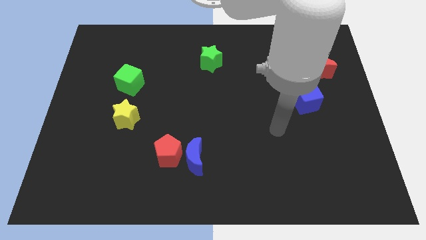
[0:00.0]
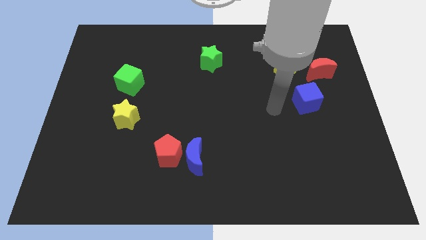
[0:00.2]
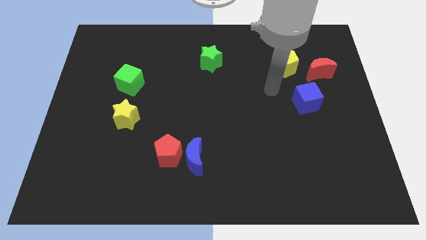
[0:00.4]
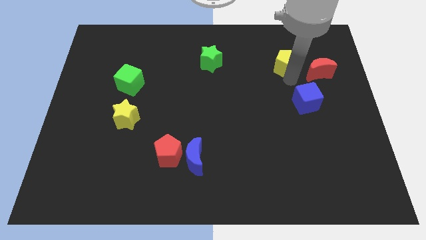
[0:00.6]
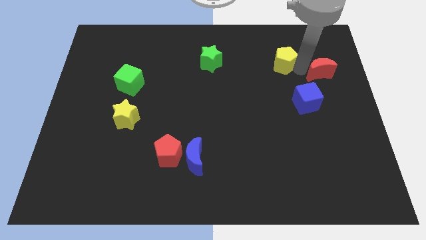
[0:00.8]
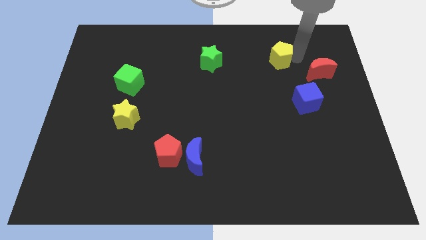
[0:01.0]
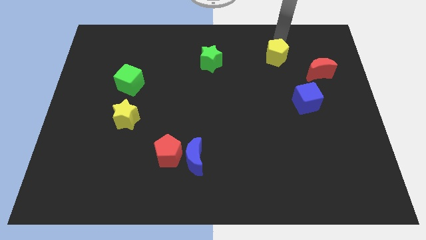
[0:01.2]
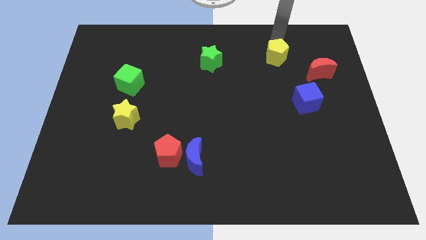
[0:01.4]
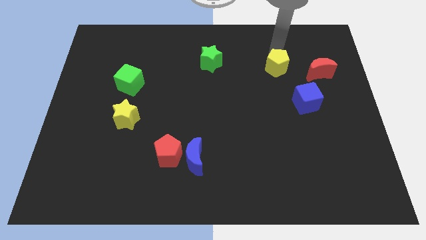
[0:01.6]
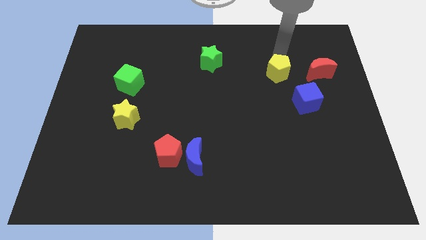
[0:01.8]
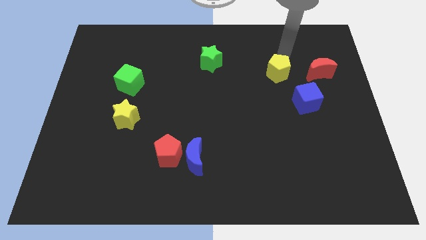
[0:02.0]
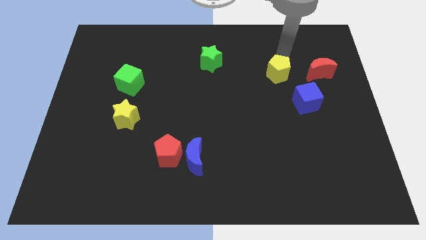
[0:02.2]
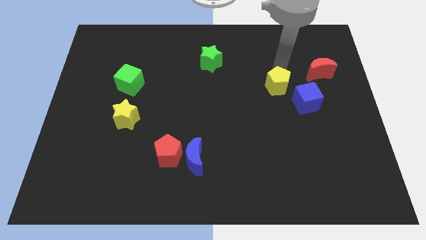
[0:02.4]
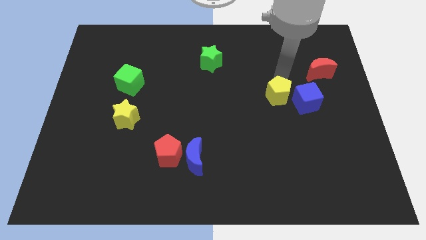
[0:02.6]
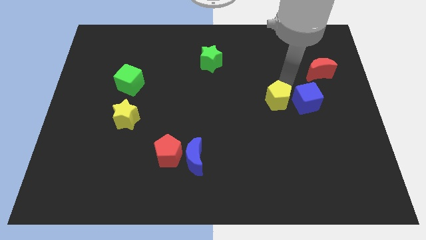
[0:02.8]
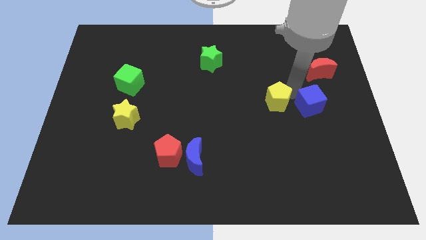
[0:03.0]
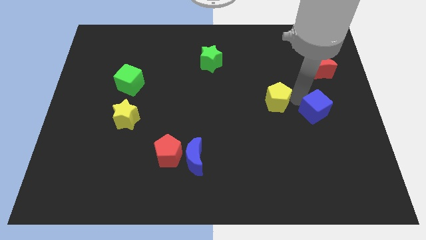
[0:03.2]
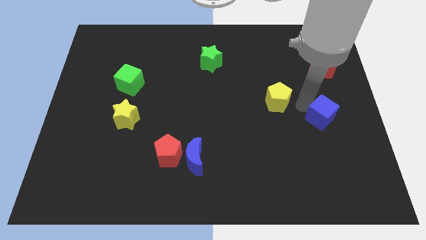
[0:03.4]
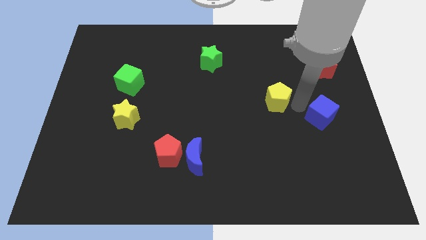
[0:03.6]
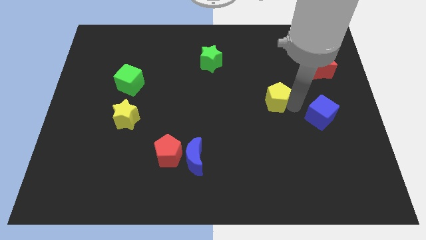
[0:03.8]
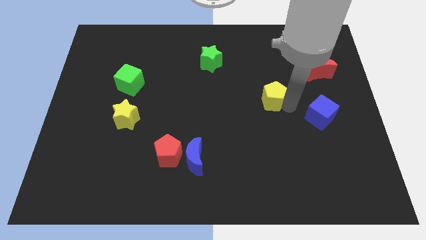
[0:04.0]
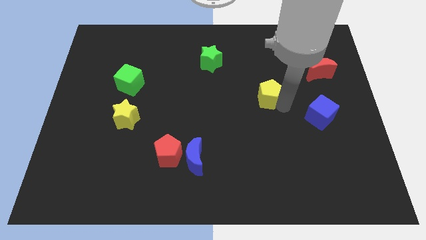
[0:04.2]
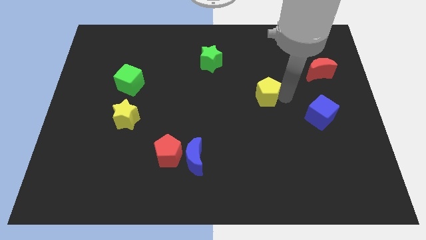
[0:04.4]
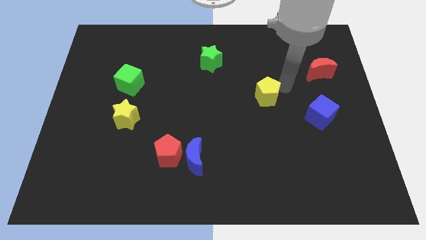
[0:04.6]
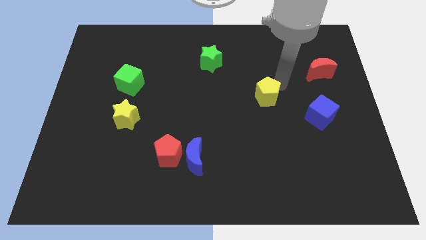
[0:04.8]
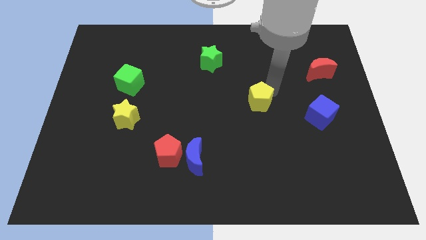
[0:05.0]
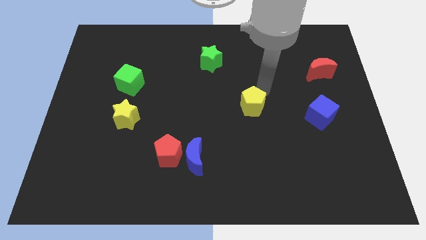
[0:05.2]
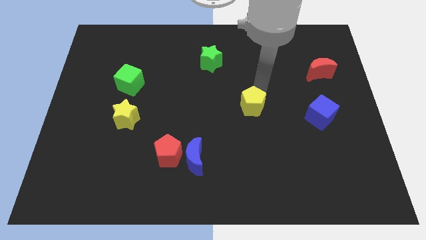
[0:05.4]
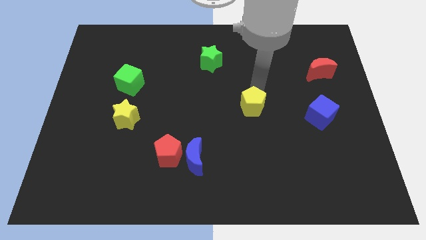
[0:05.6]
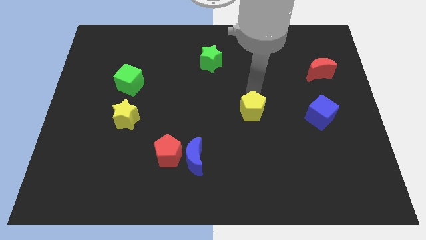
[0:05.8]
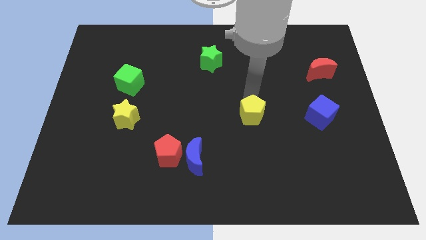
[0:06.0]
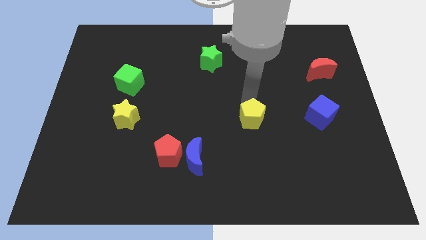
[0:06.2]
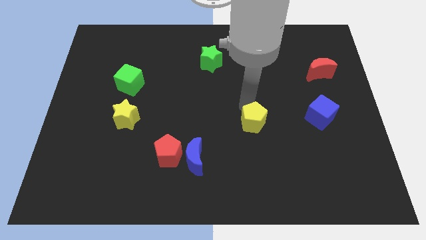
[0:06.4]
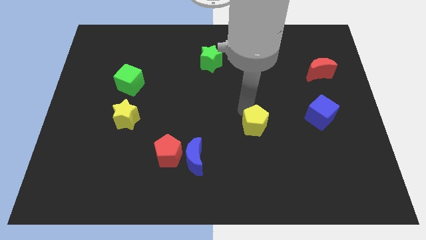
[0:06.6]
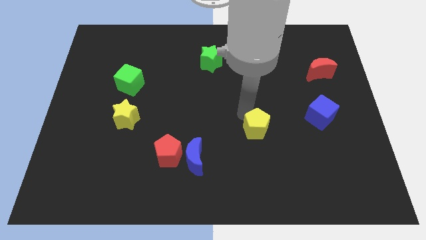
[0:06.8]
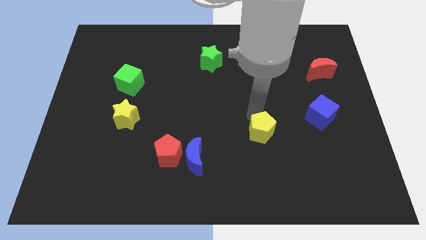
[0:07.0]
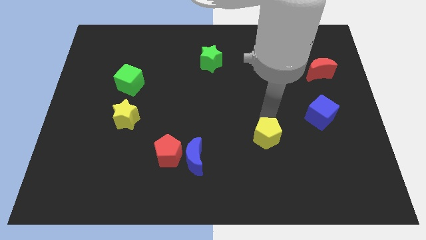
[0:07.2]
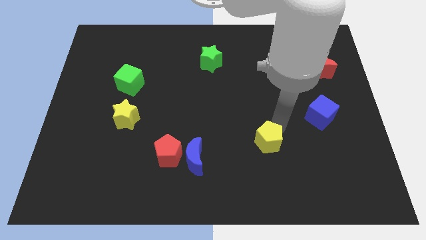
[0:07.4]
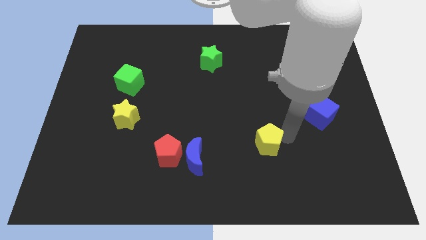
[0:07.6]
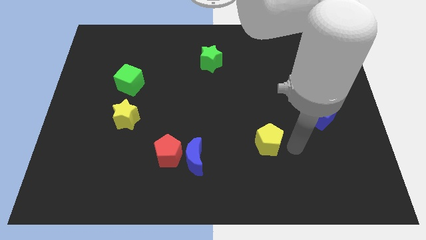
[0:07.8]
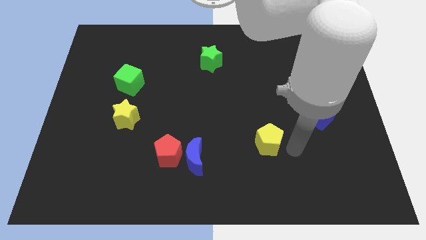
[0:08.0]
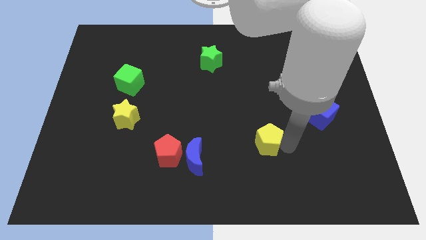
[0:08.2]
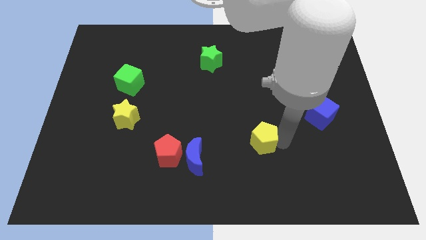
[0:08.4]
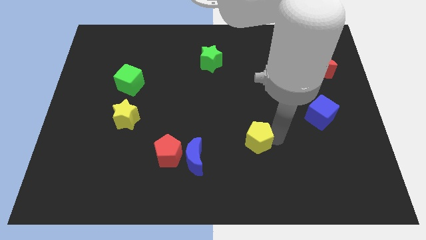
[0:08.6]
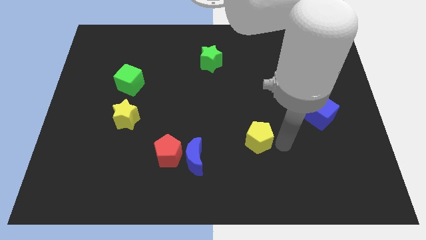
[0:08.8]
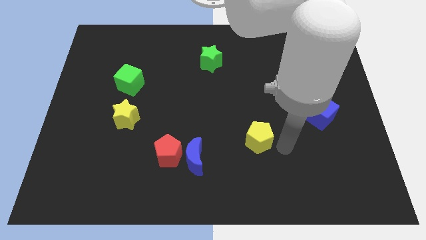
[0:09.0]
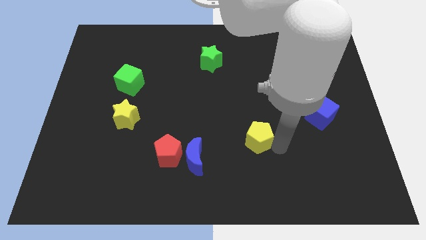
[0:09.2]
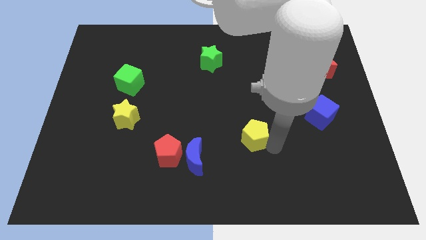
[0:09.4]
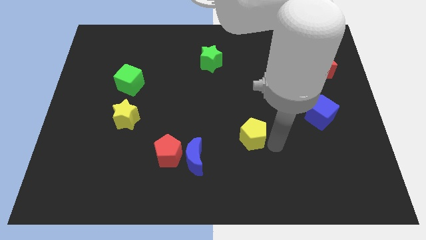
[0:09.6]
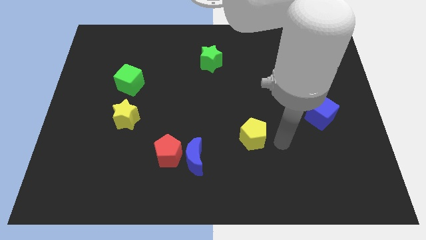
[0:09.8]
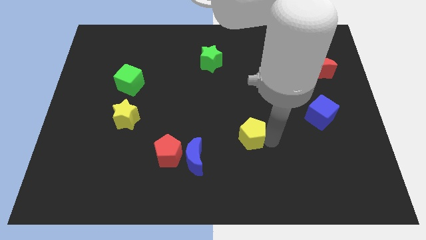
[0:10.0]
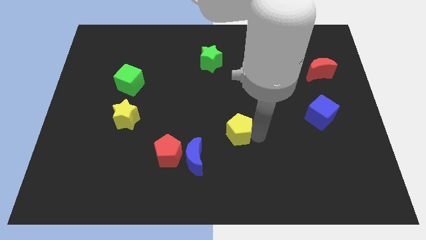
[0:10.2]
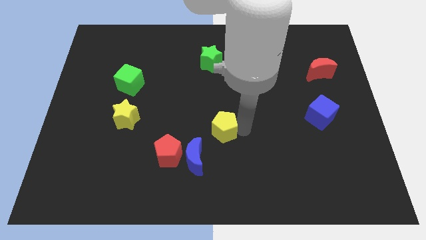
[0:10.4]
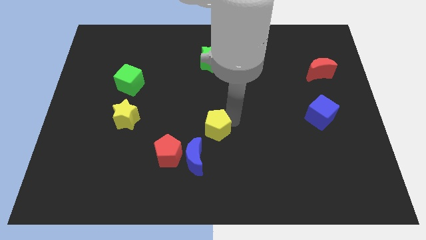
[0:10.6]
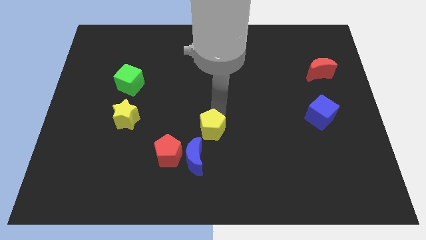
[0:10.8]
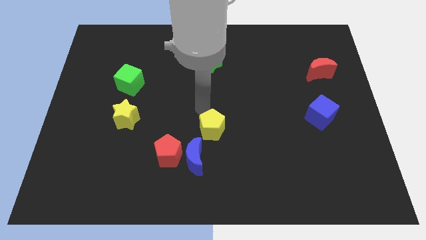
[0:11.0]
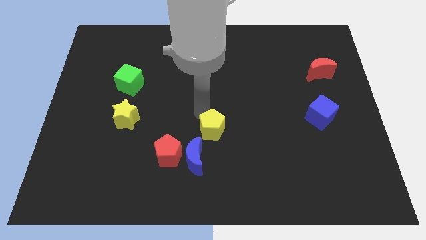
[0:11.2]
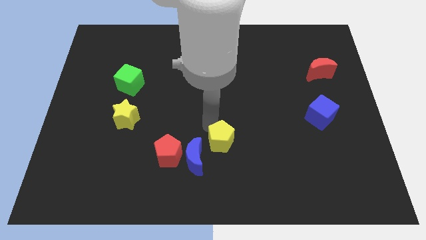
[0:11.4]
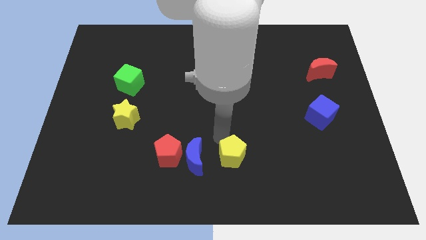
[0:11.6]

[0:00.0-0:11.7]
move the yellow pentagon to the bottom side

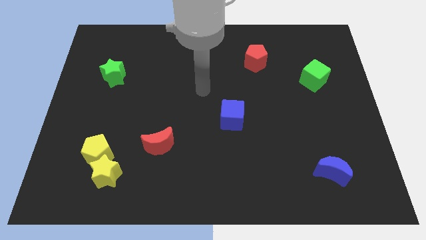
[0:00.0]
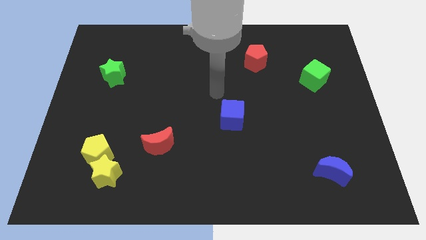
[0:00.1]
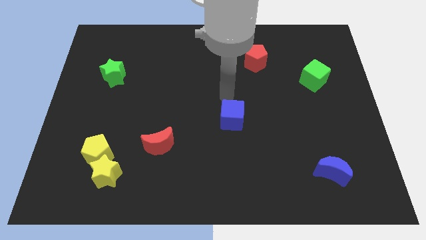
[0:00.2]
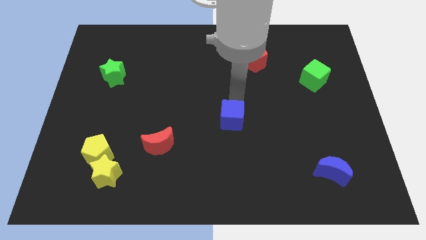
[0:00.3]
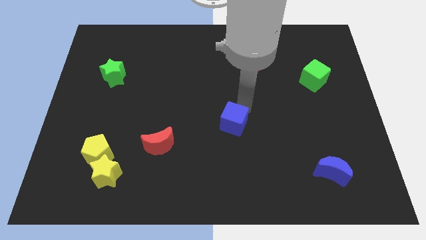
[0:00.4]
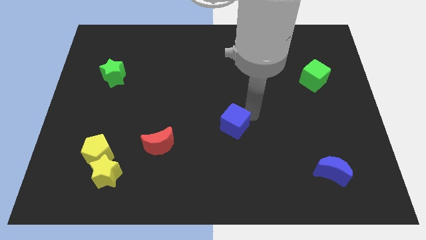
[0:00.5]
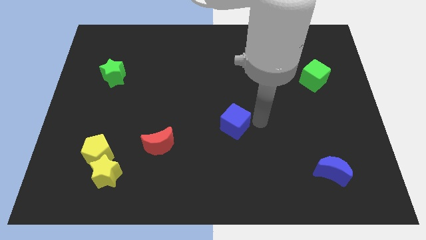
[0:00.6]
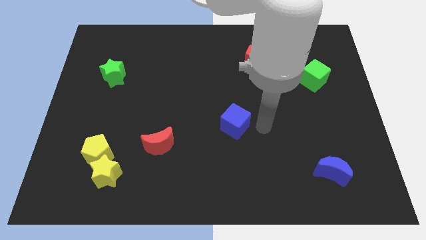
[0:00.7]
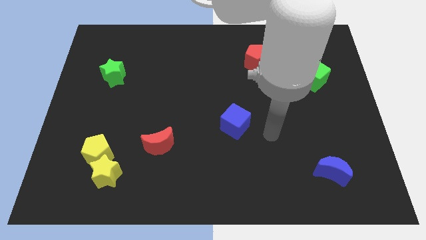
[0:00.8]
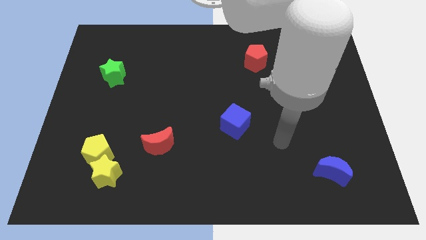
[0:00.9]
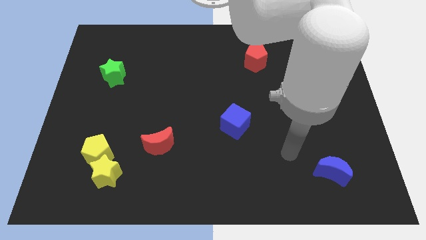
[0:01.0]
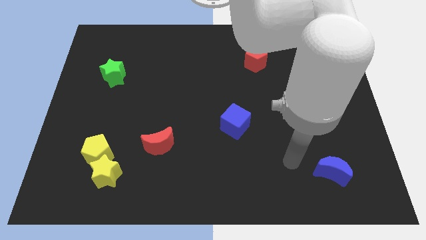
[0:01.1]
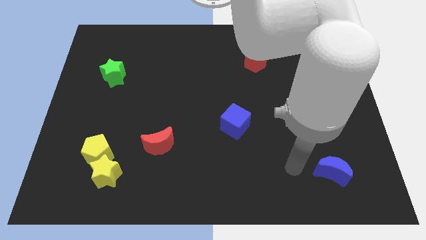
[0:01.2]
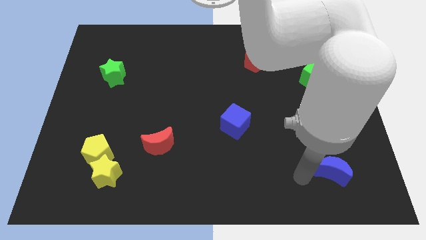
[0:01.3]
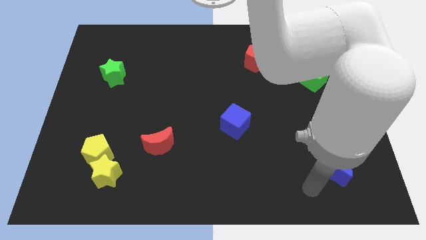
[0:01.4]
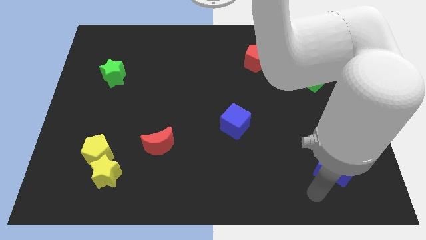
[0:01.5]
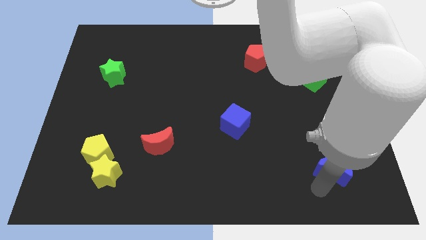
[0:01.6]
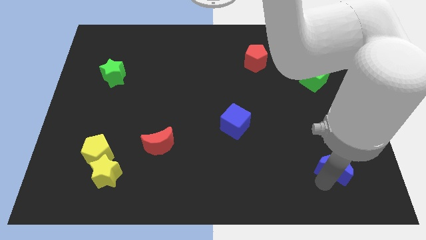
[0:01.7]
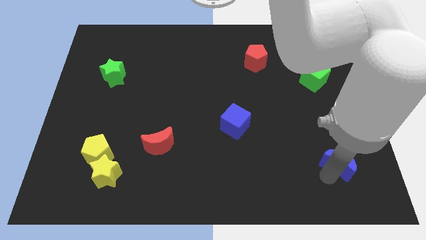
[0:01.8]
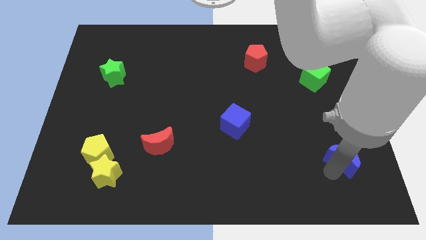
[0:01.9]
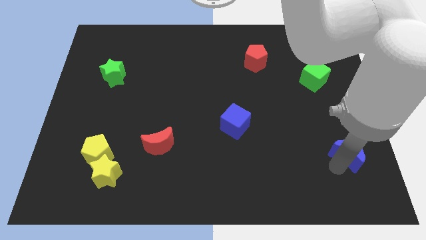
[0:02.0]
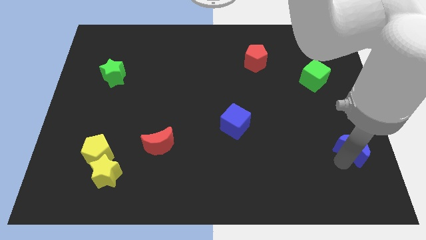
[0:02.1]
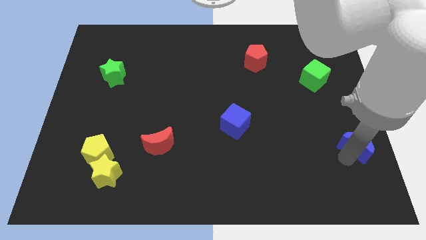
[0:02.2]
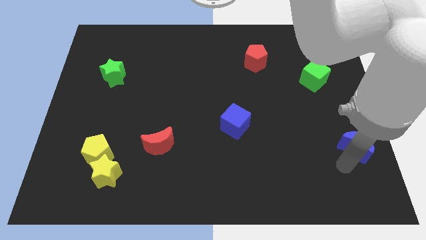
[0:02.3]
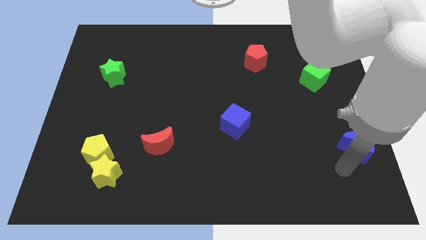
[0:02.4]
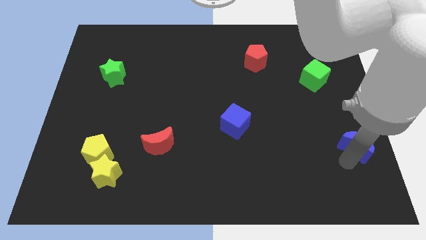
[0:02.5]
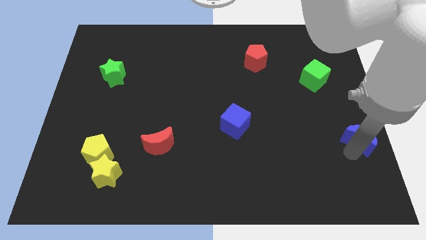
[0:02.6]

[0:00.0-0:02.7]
push the blue moon to the center right
